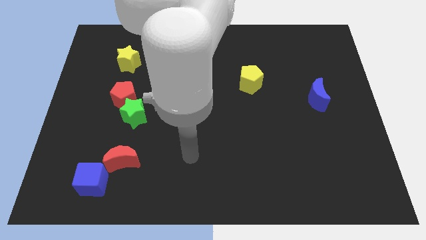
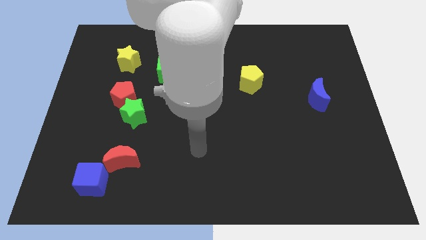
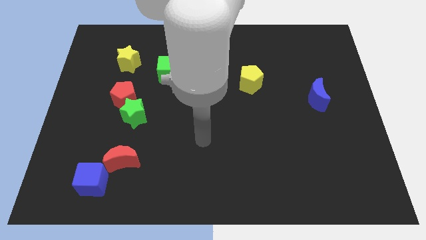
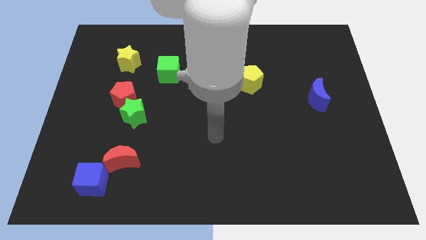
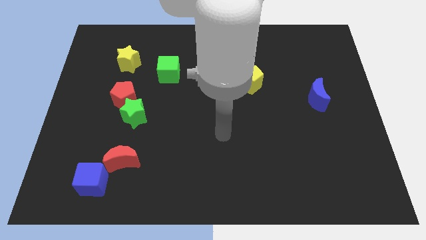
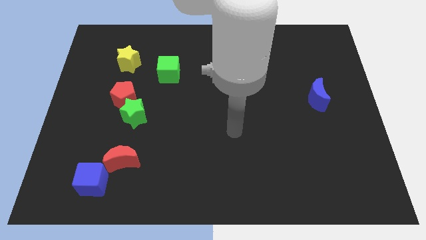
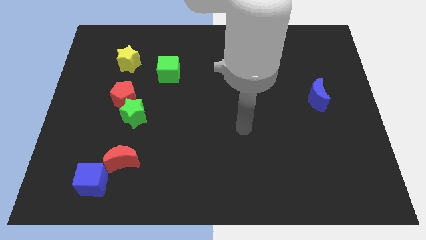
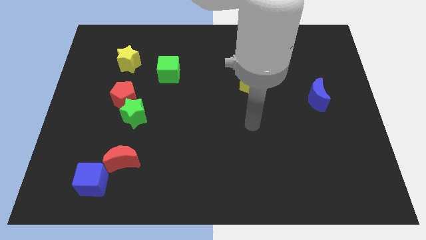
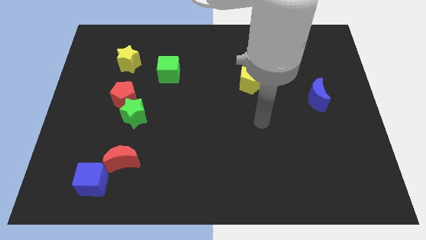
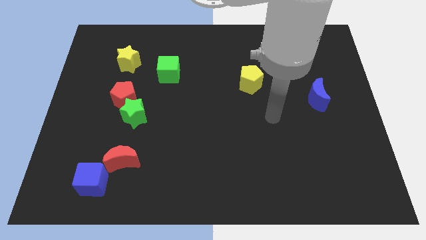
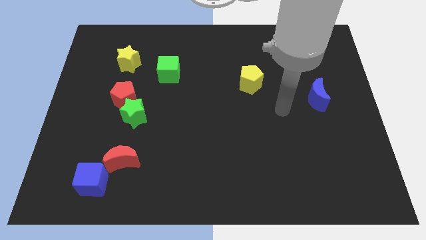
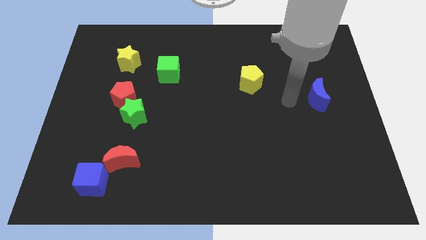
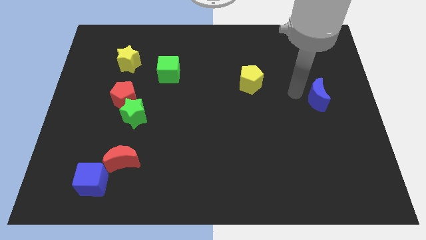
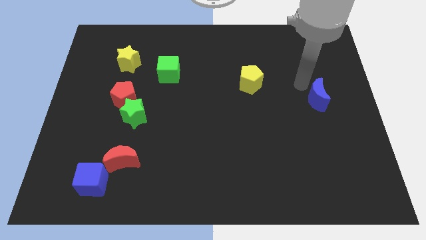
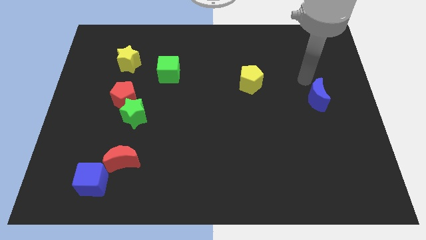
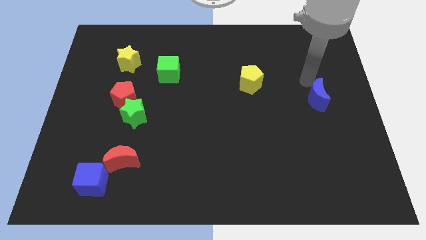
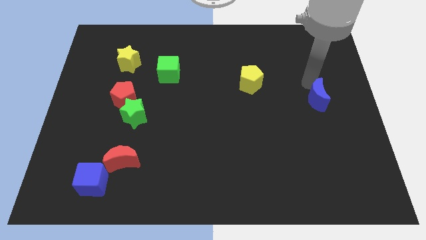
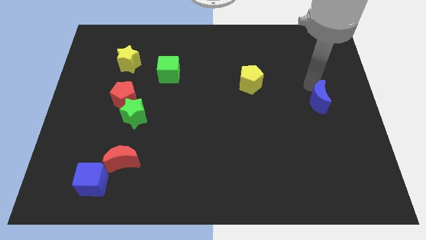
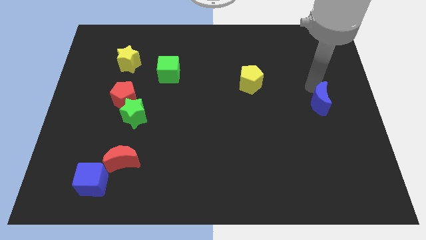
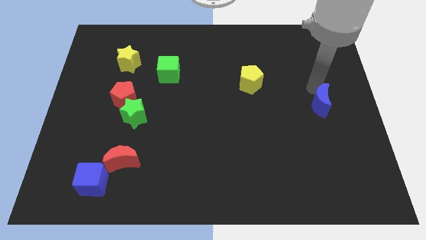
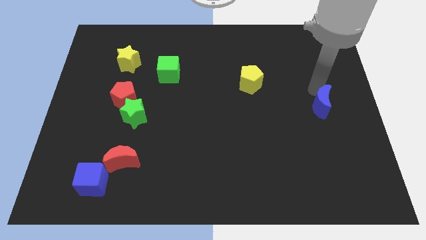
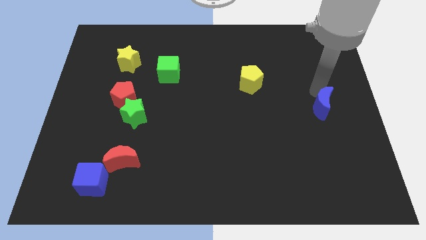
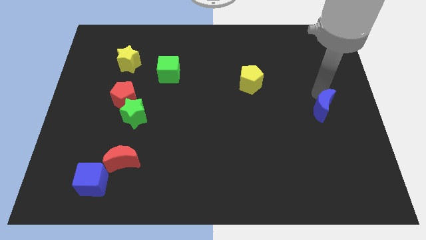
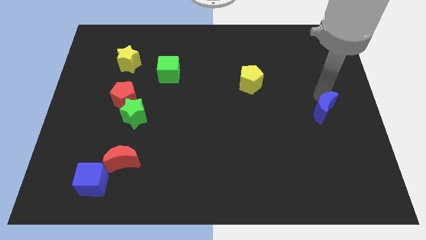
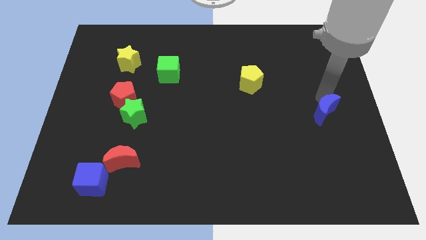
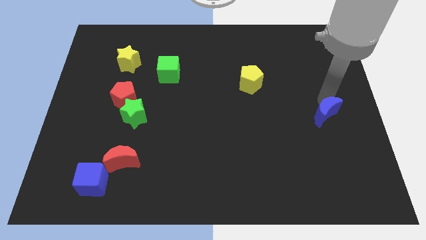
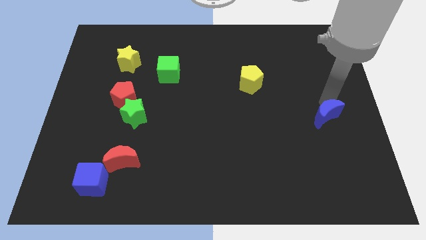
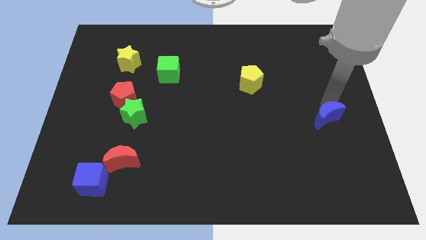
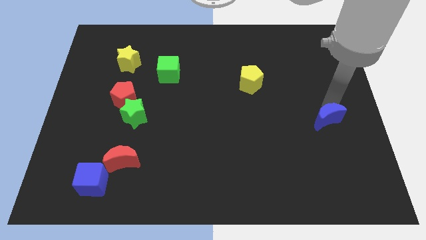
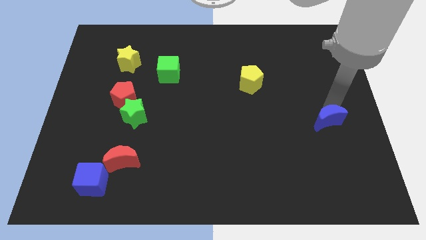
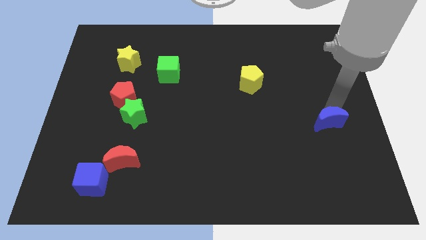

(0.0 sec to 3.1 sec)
slide the blue moon a little down

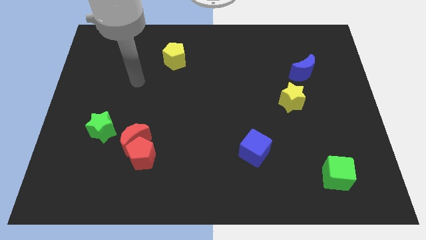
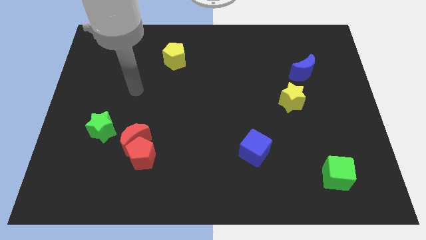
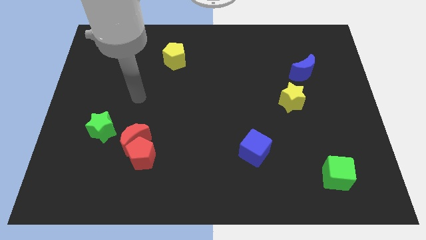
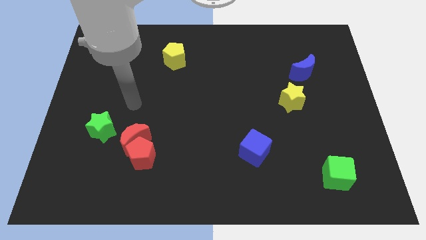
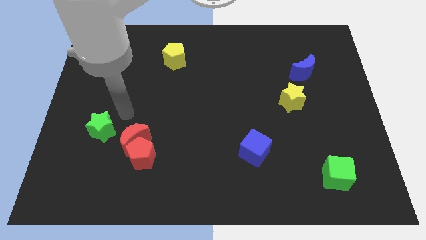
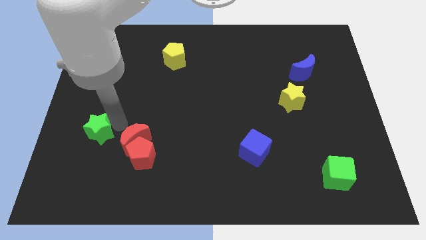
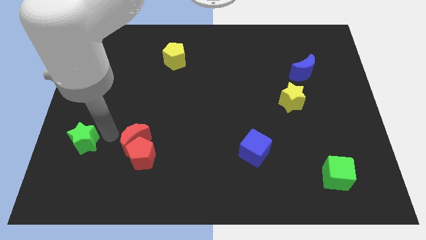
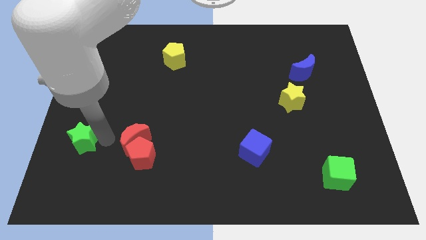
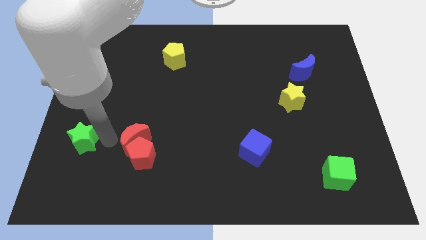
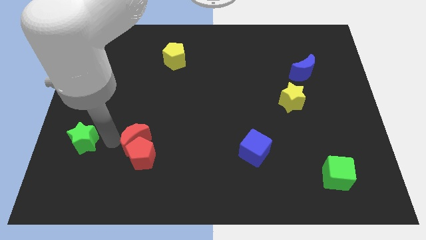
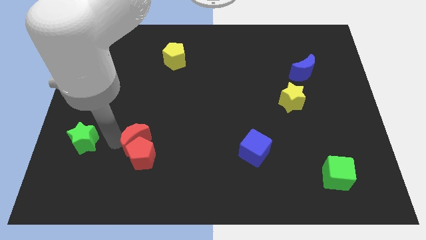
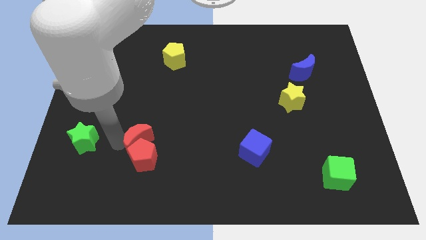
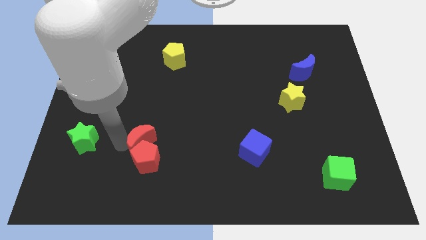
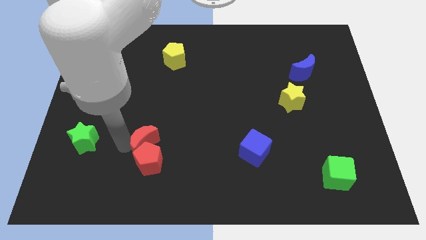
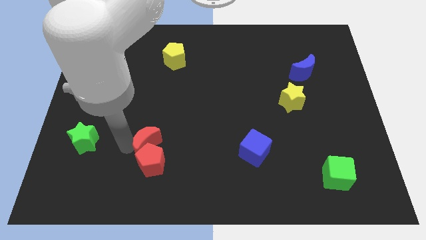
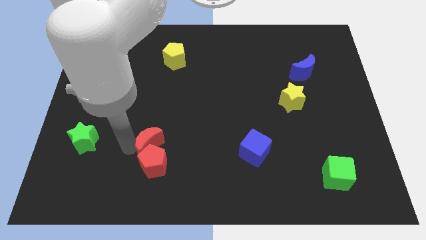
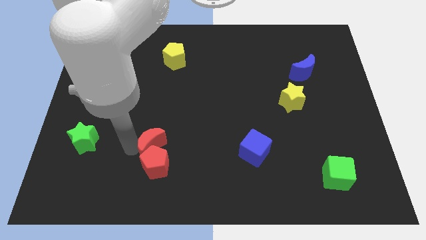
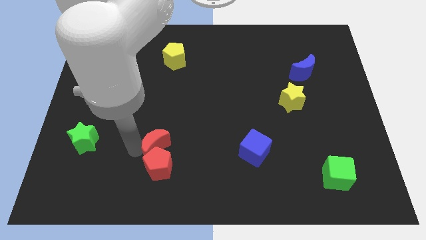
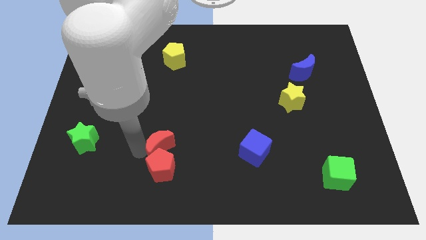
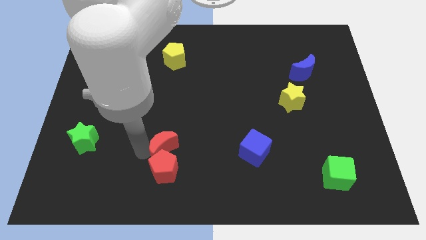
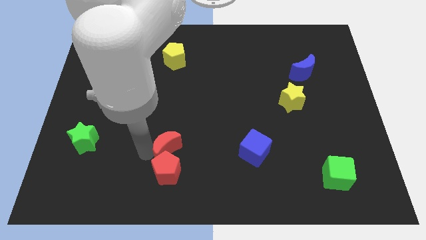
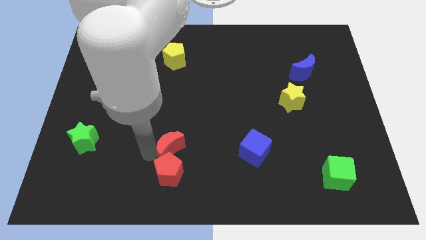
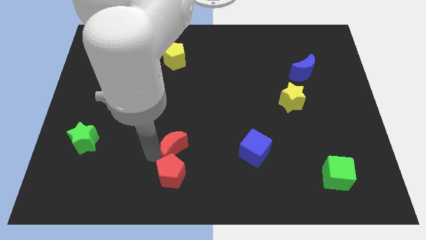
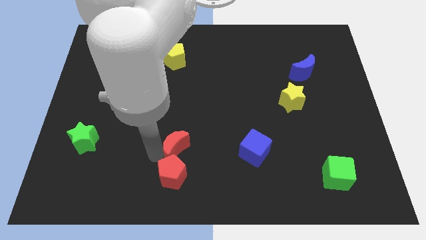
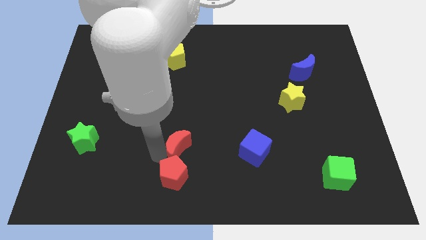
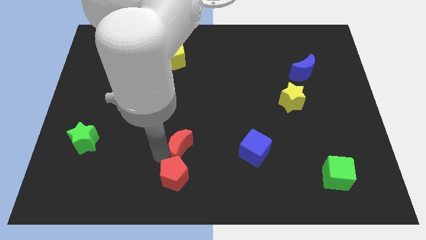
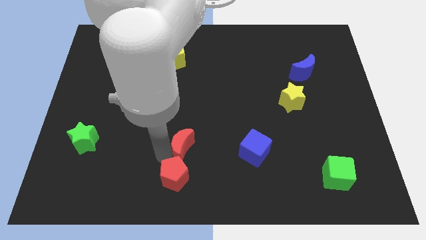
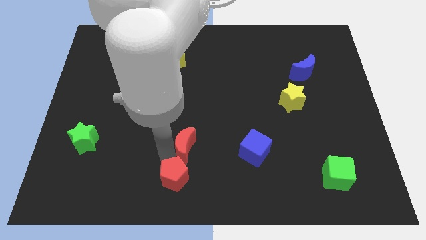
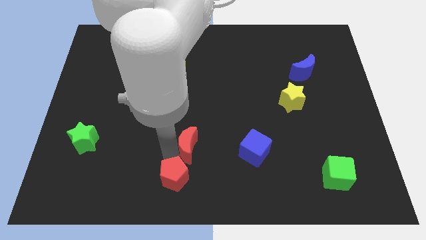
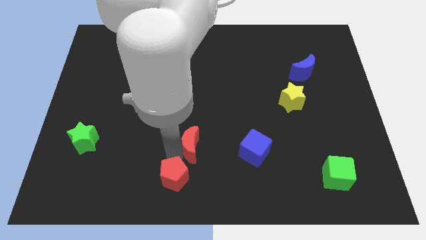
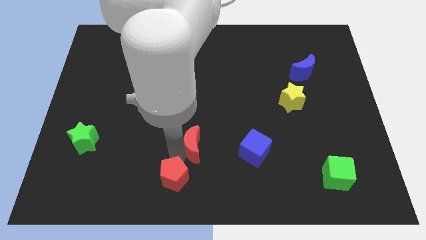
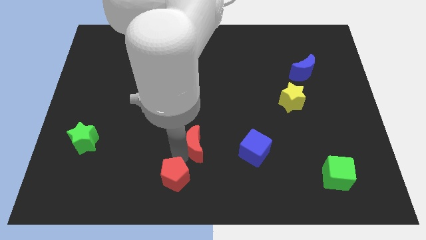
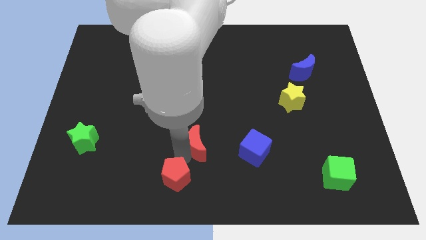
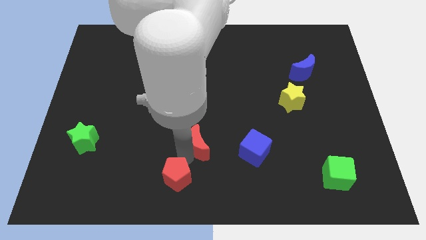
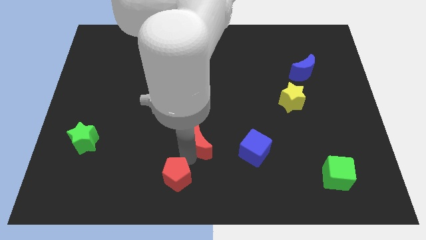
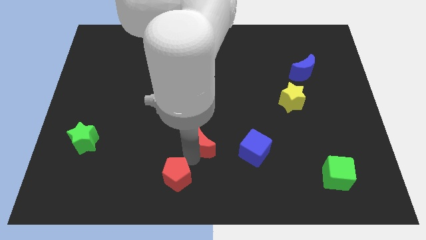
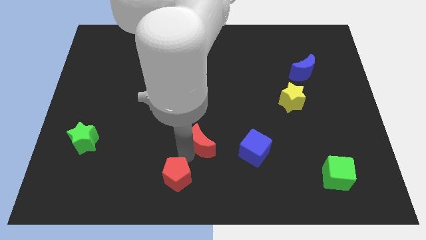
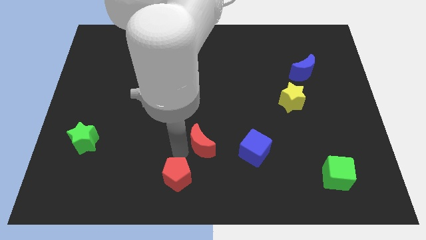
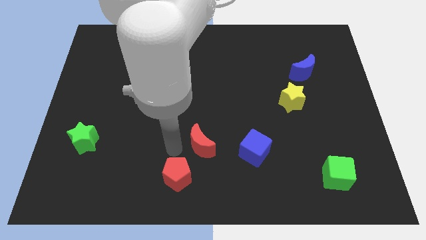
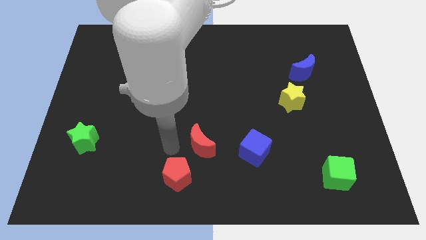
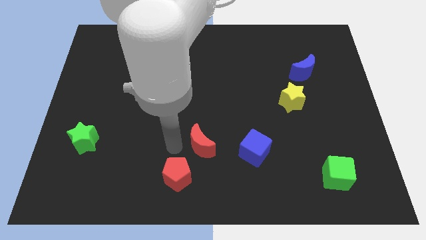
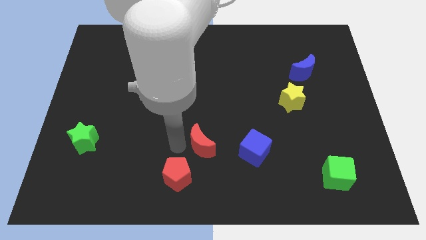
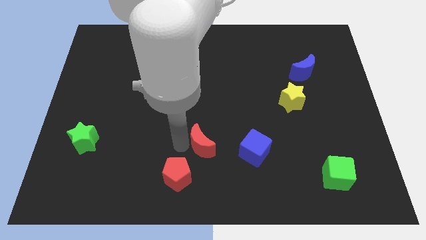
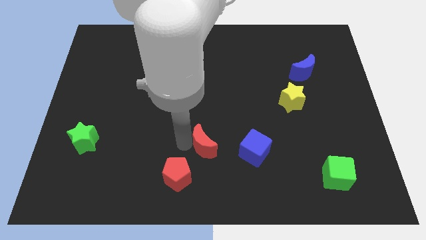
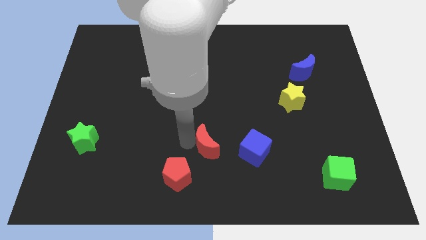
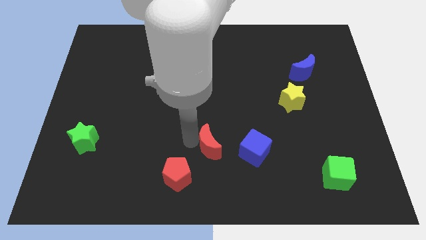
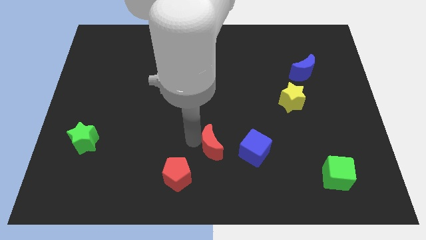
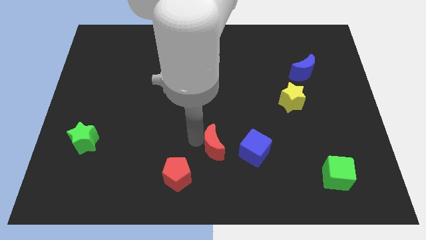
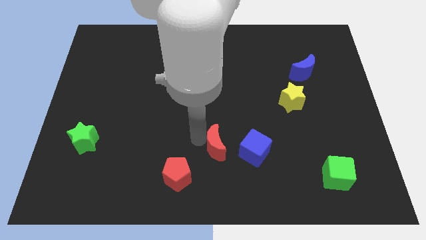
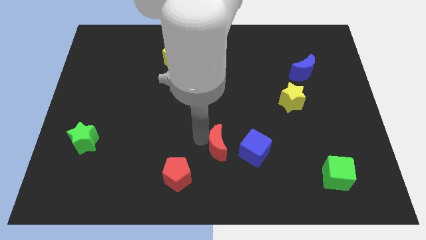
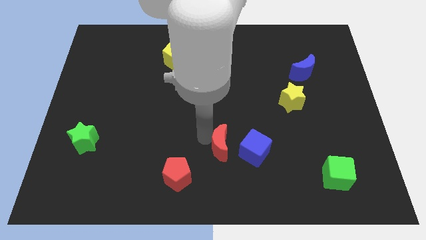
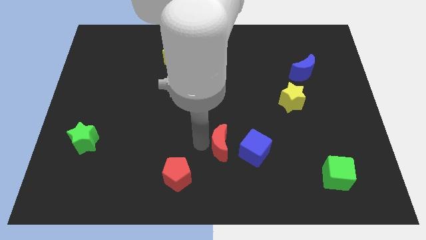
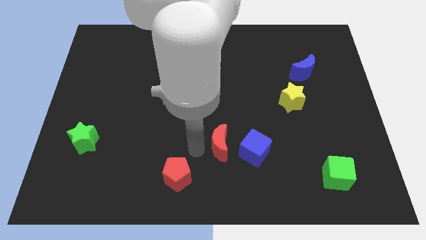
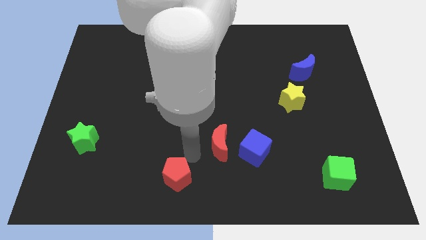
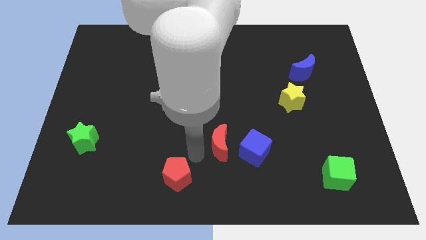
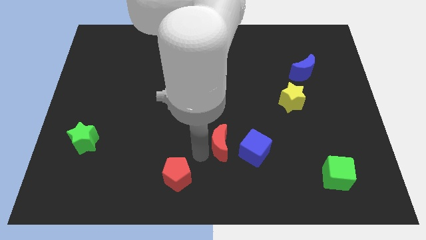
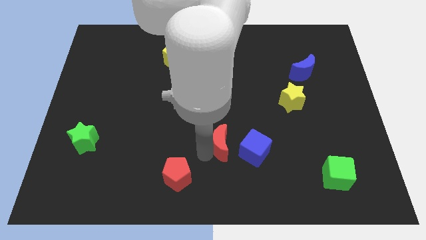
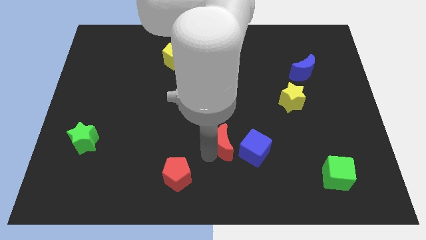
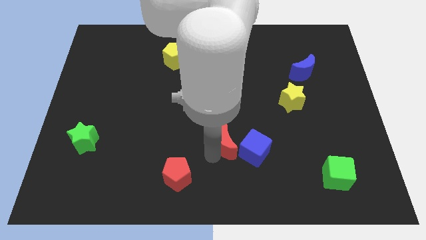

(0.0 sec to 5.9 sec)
push the red moon to the right
